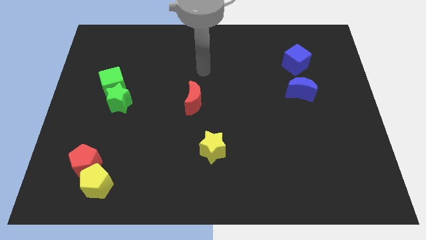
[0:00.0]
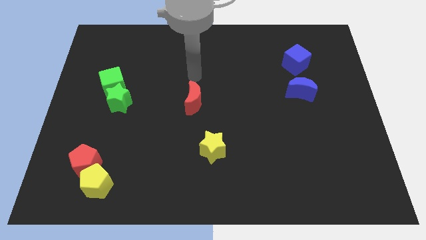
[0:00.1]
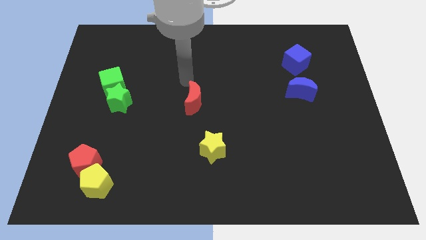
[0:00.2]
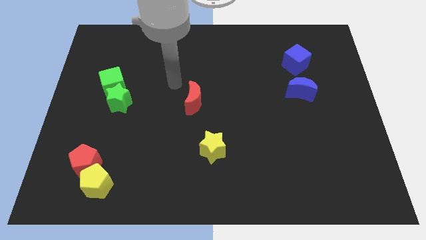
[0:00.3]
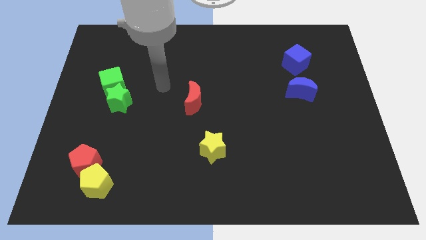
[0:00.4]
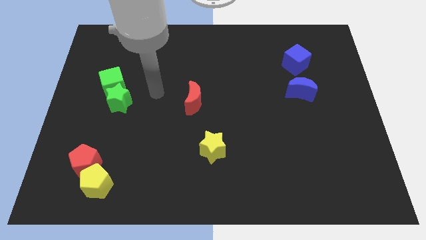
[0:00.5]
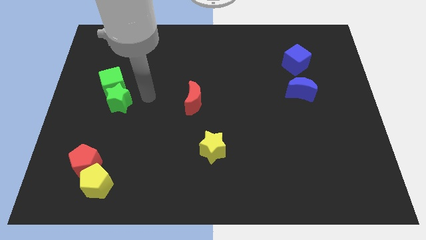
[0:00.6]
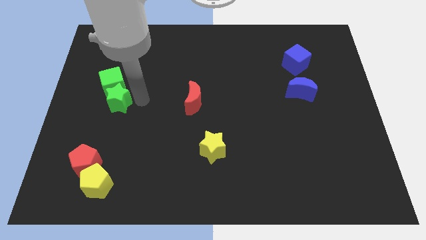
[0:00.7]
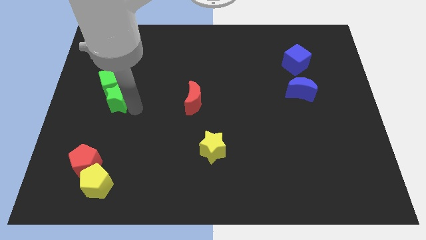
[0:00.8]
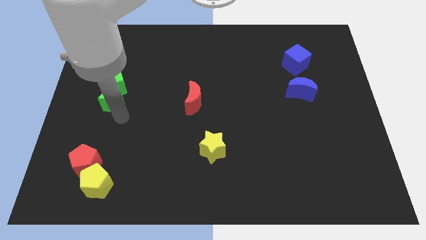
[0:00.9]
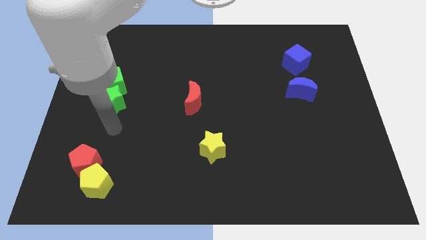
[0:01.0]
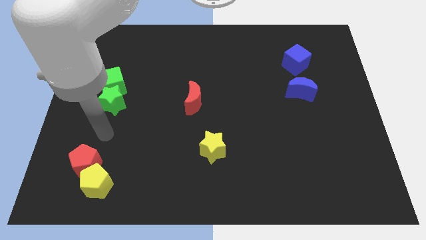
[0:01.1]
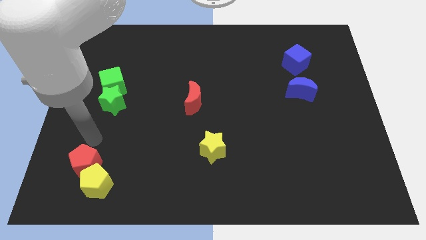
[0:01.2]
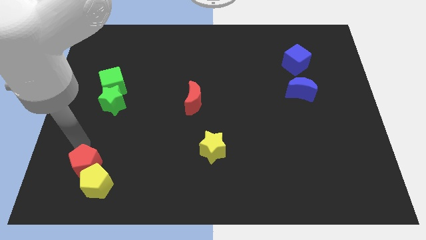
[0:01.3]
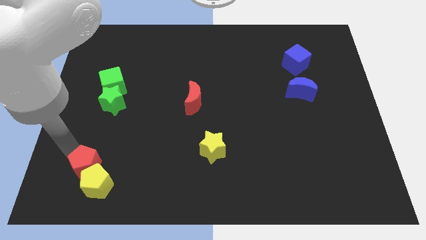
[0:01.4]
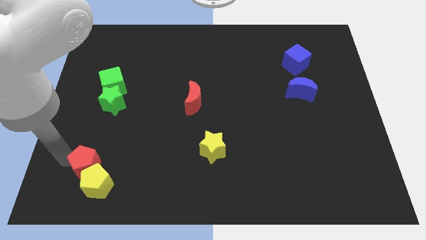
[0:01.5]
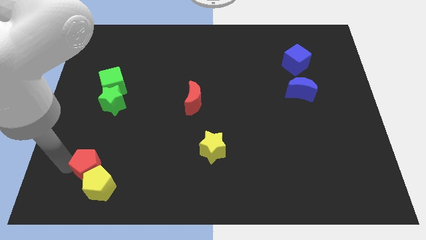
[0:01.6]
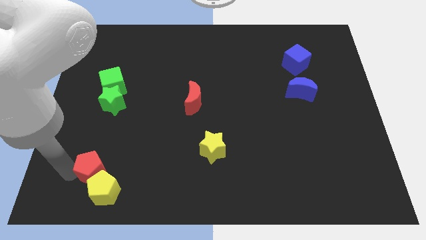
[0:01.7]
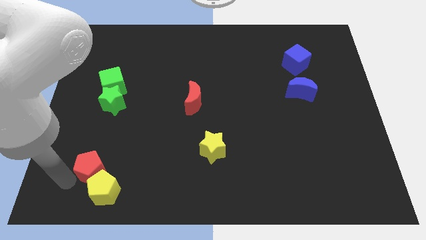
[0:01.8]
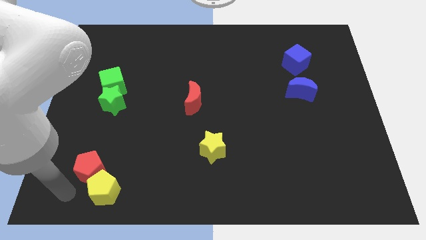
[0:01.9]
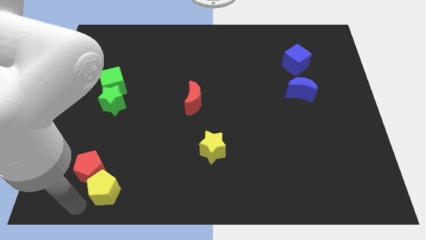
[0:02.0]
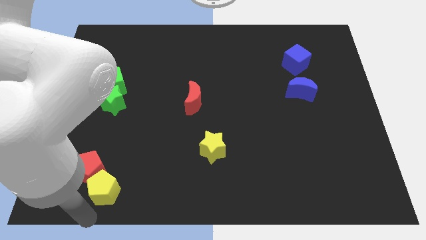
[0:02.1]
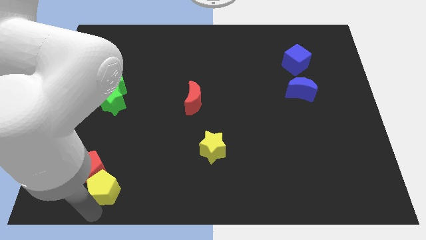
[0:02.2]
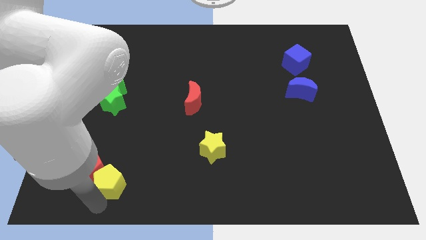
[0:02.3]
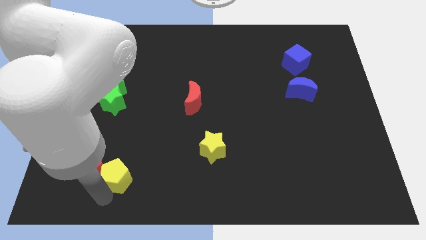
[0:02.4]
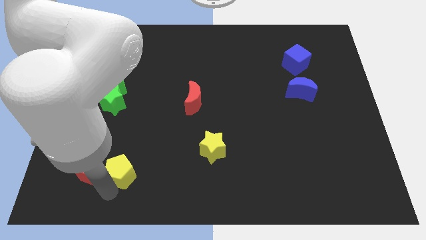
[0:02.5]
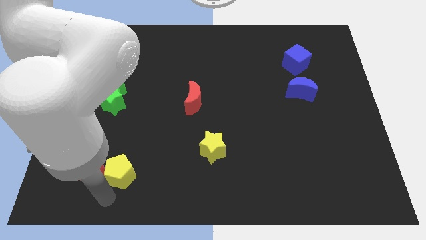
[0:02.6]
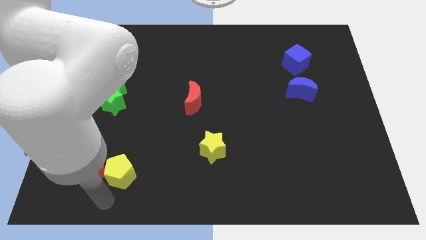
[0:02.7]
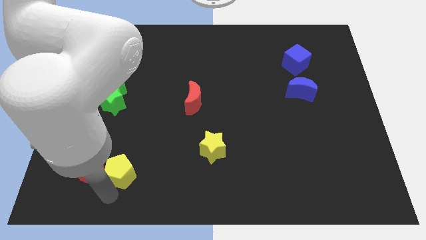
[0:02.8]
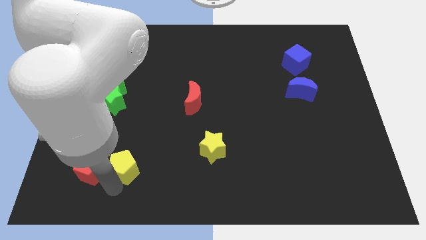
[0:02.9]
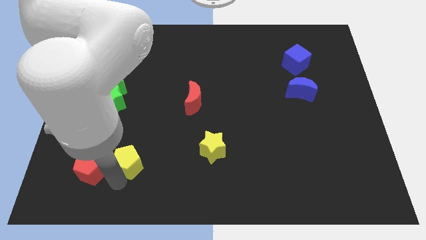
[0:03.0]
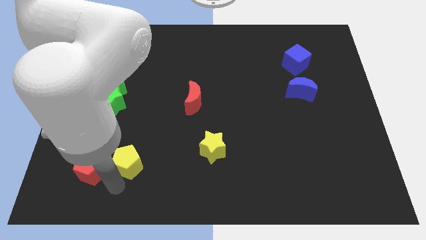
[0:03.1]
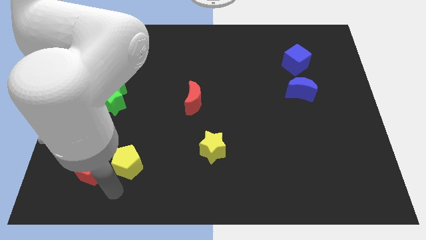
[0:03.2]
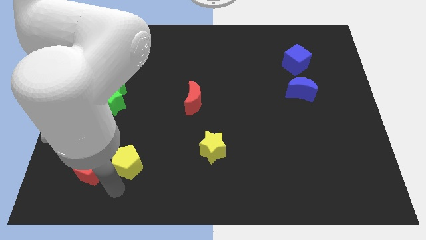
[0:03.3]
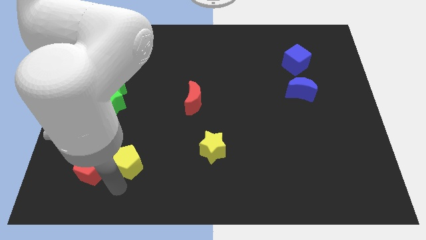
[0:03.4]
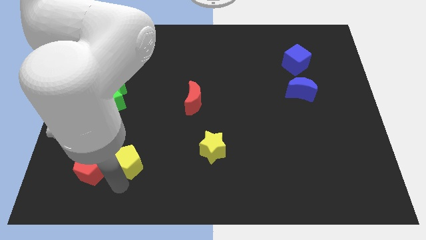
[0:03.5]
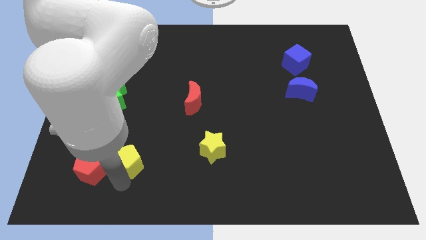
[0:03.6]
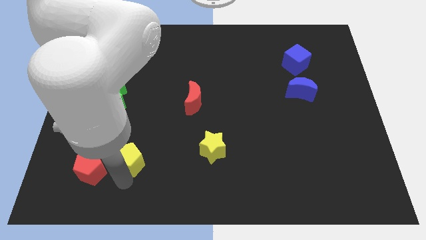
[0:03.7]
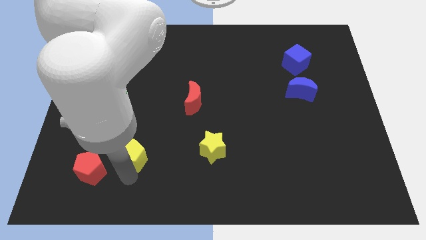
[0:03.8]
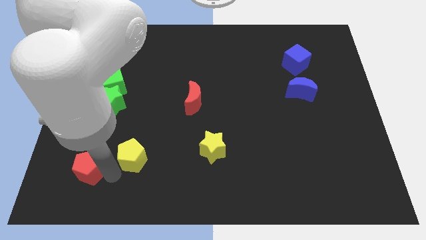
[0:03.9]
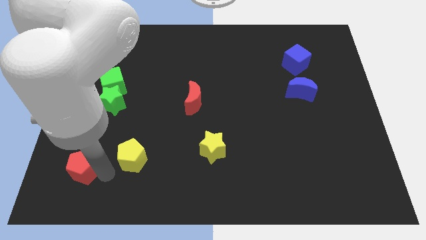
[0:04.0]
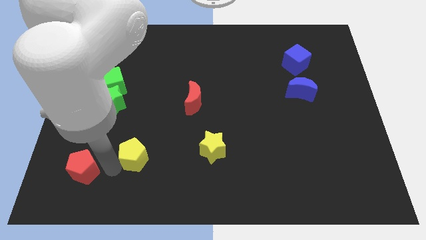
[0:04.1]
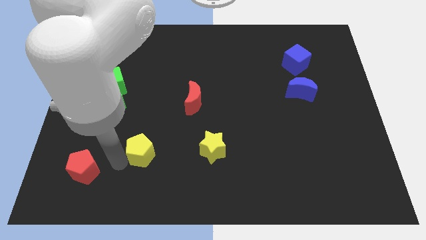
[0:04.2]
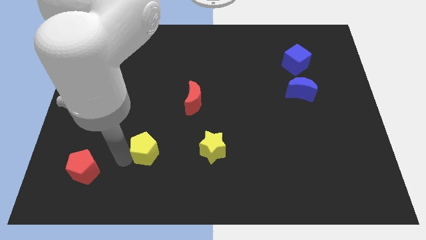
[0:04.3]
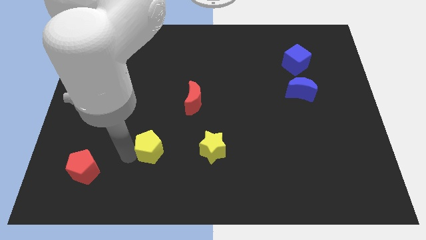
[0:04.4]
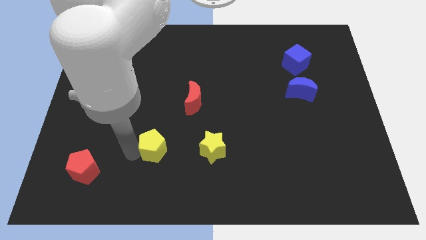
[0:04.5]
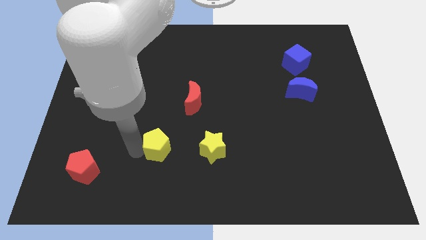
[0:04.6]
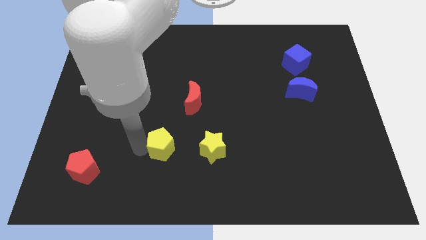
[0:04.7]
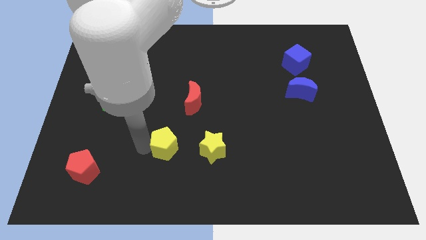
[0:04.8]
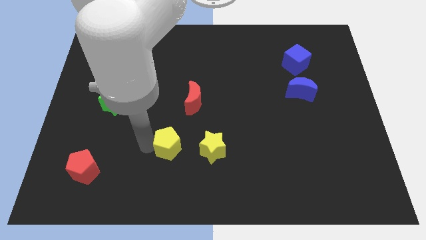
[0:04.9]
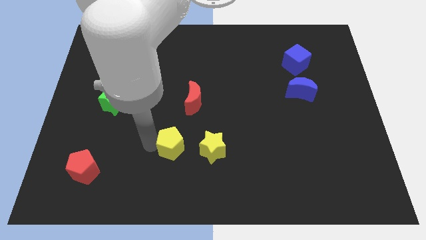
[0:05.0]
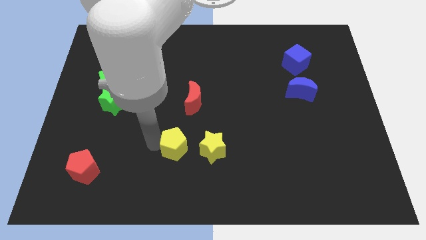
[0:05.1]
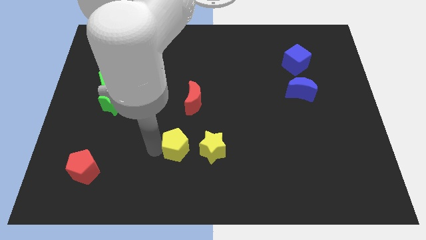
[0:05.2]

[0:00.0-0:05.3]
push the yellow pentagon diagonally up and to the left of the yellow star

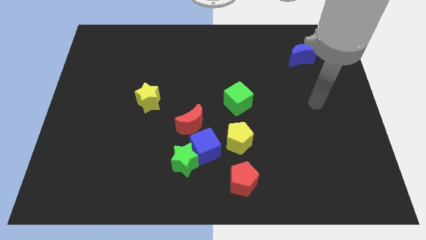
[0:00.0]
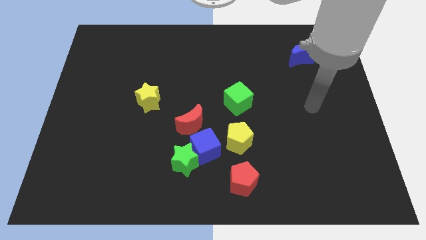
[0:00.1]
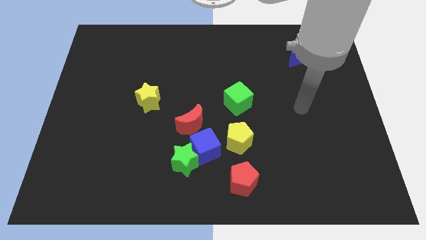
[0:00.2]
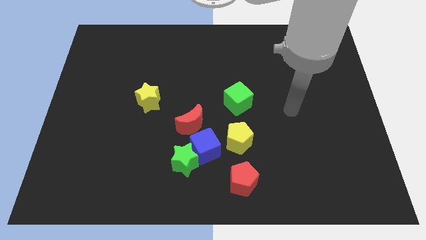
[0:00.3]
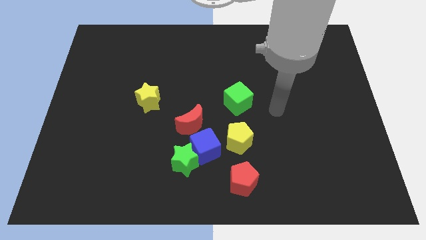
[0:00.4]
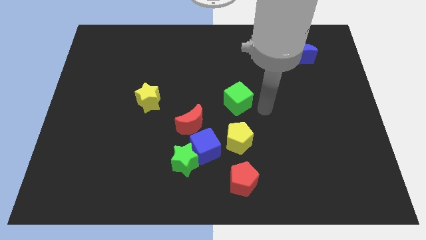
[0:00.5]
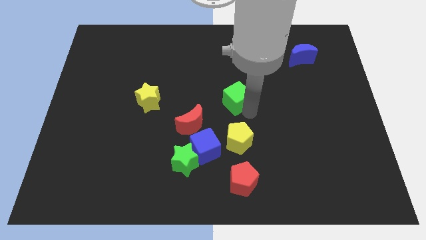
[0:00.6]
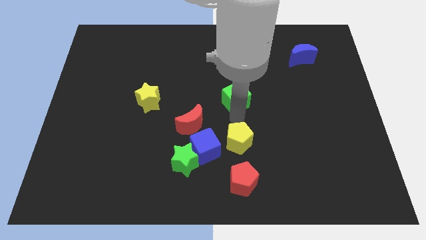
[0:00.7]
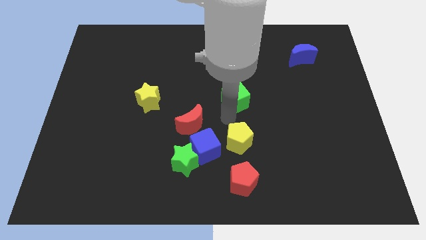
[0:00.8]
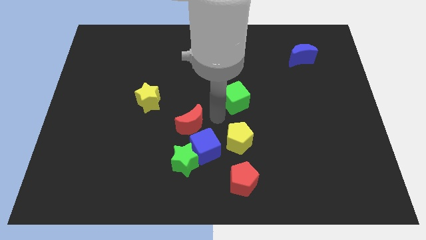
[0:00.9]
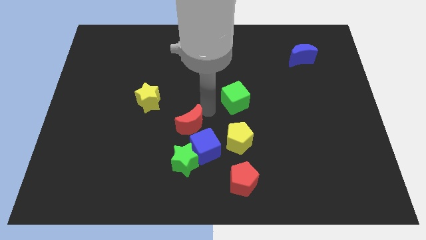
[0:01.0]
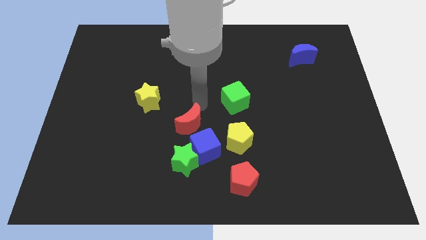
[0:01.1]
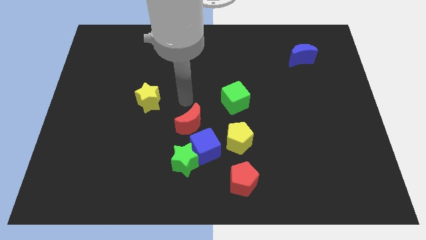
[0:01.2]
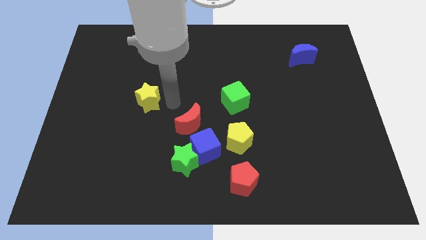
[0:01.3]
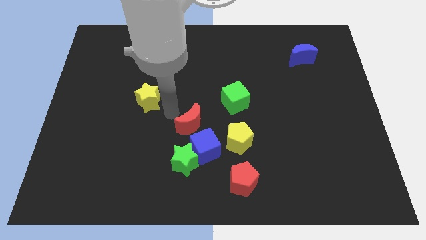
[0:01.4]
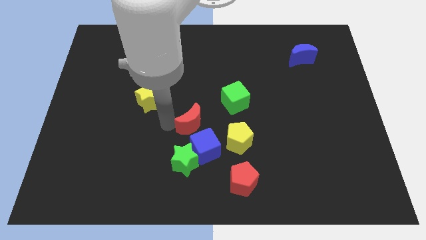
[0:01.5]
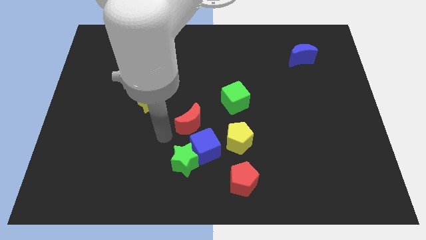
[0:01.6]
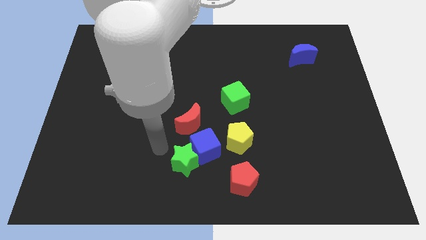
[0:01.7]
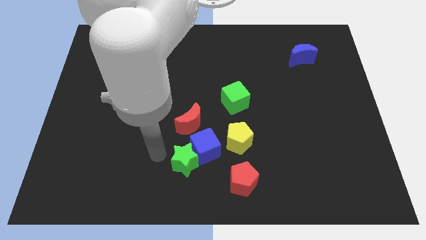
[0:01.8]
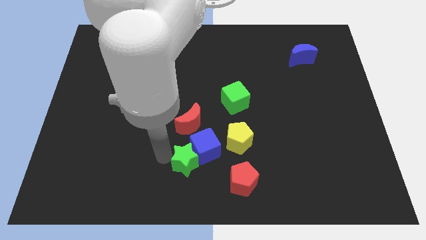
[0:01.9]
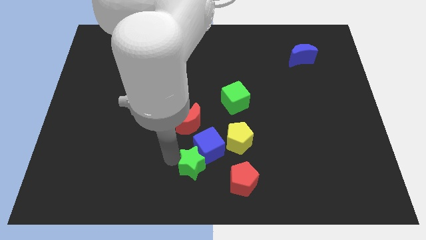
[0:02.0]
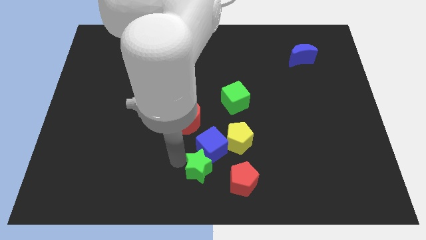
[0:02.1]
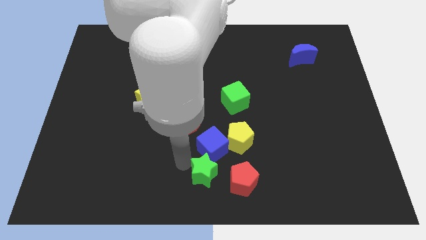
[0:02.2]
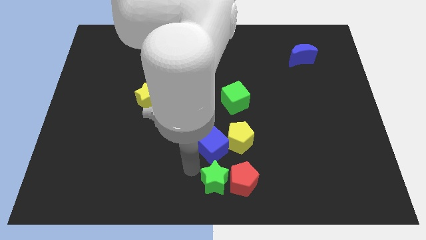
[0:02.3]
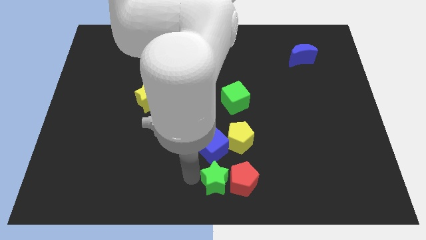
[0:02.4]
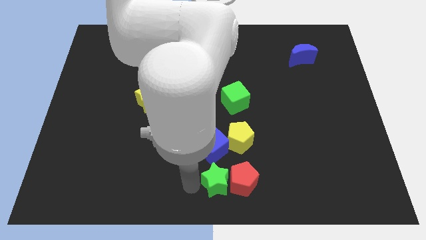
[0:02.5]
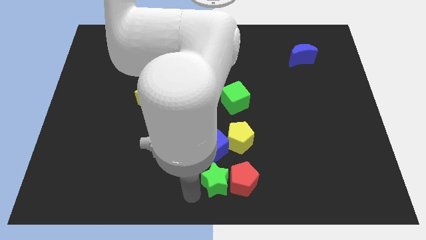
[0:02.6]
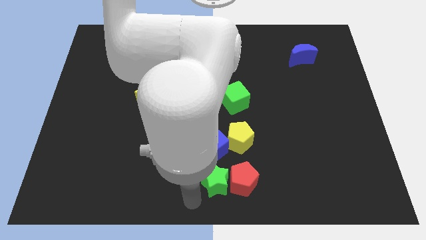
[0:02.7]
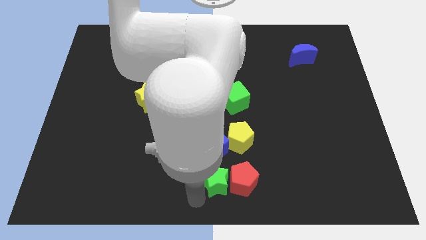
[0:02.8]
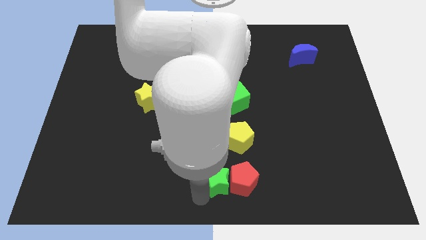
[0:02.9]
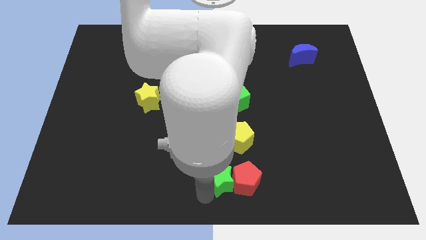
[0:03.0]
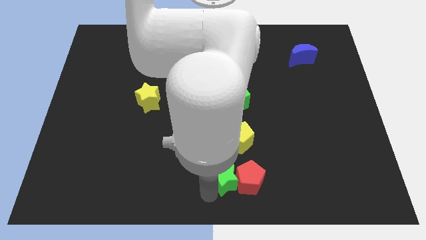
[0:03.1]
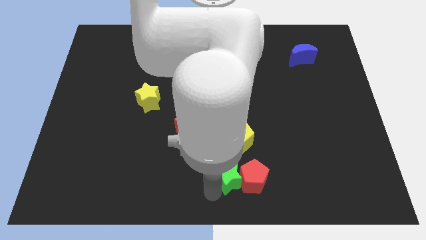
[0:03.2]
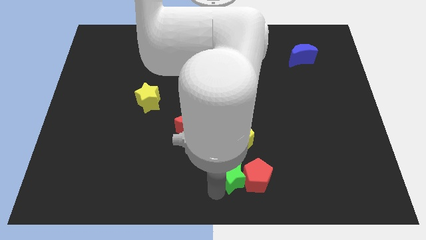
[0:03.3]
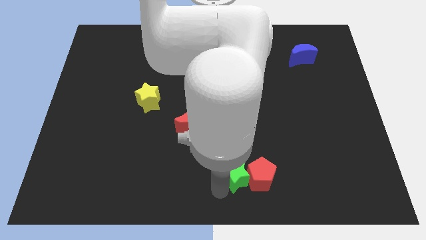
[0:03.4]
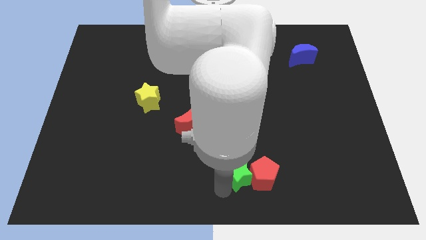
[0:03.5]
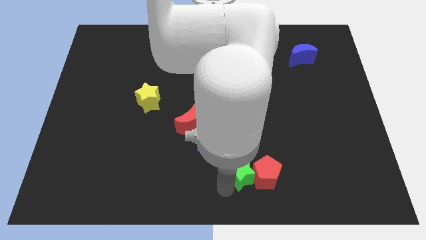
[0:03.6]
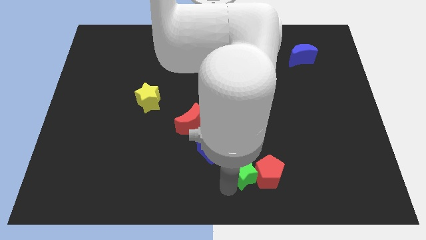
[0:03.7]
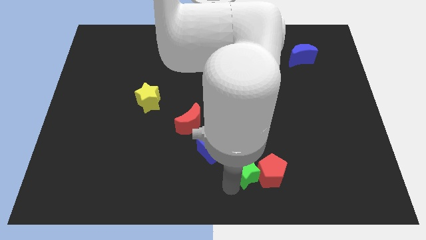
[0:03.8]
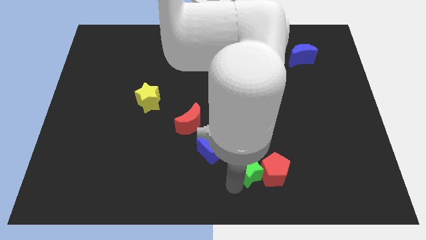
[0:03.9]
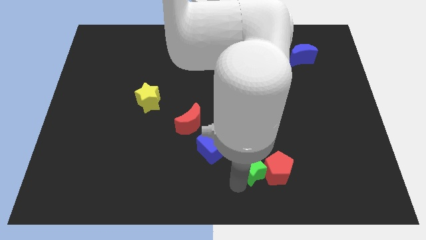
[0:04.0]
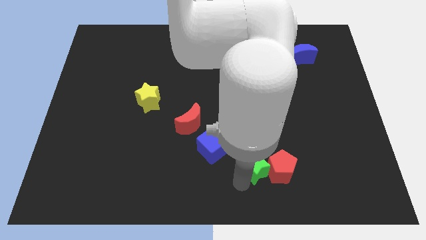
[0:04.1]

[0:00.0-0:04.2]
put the green star to the right of the blue cube
